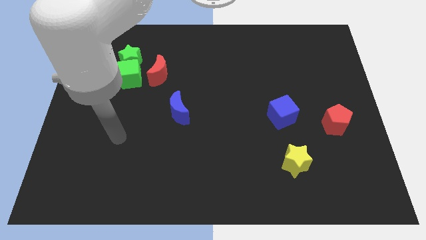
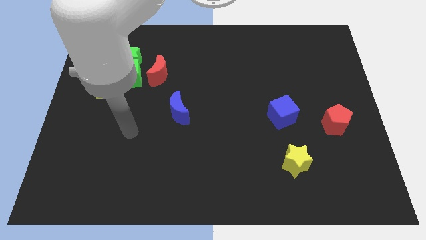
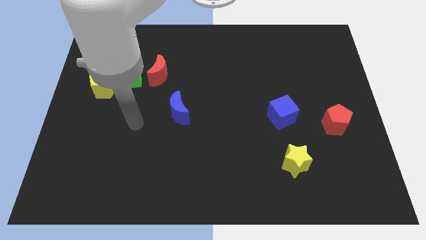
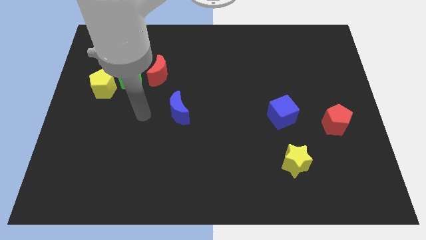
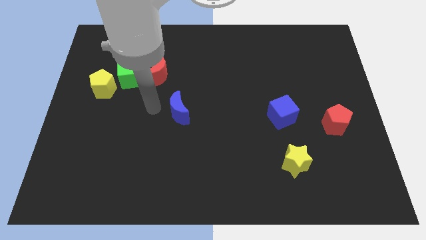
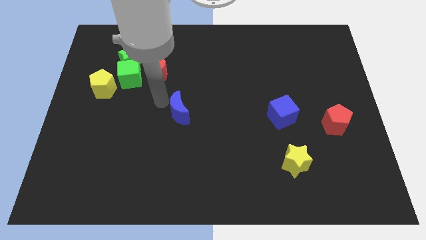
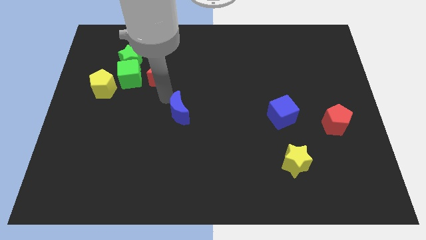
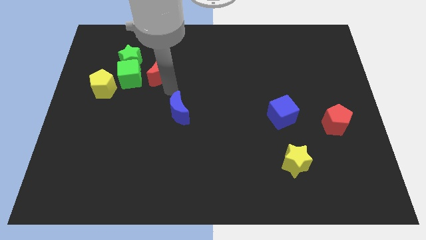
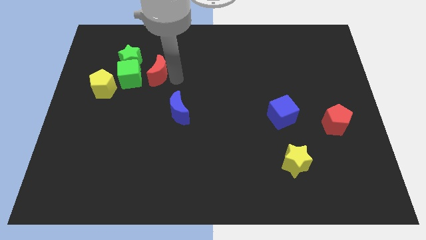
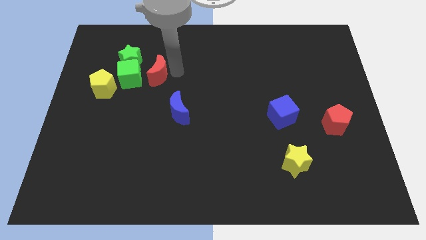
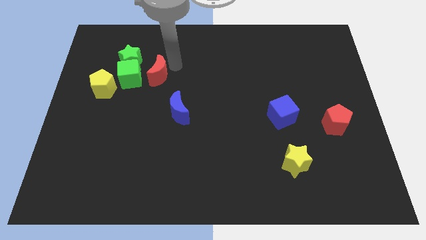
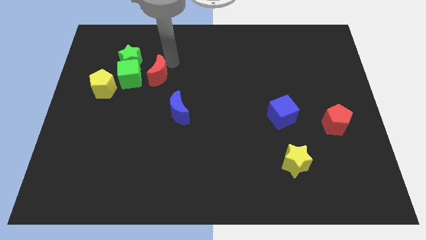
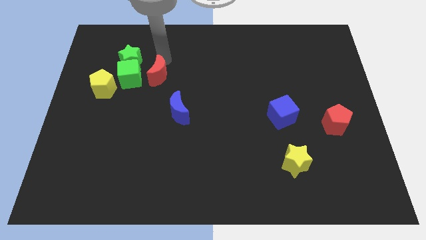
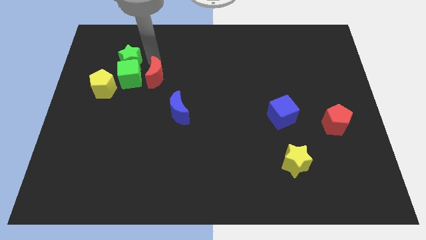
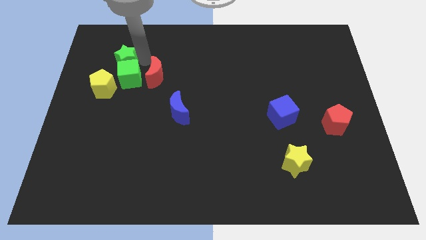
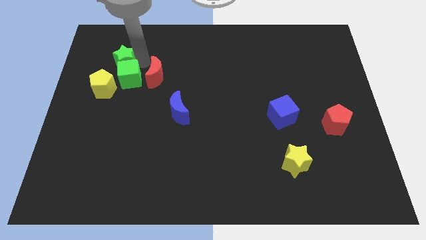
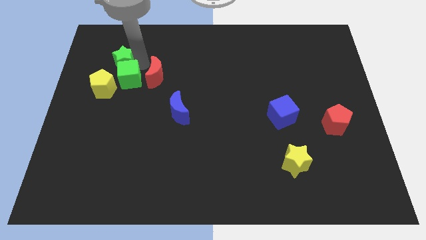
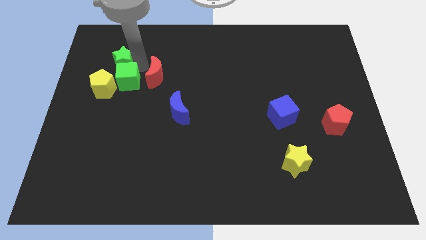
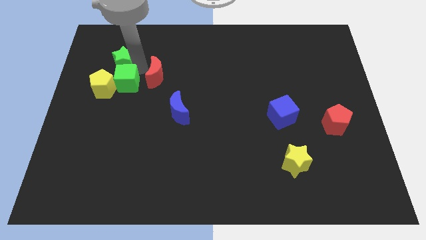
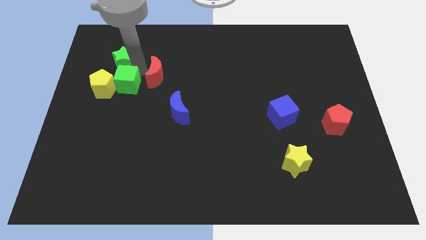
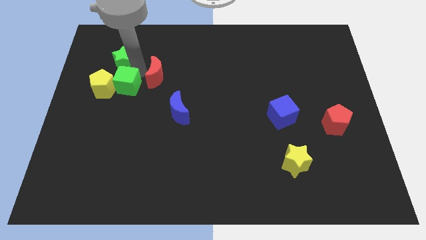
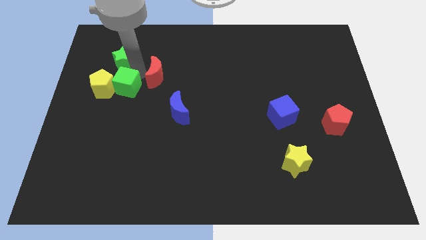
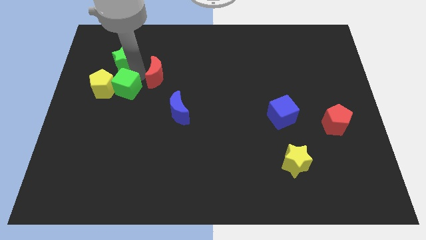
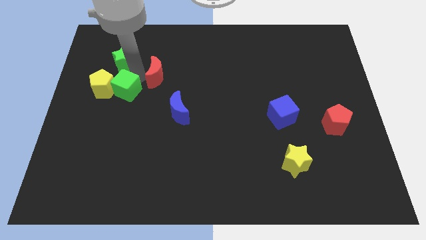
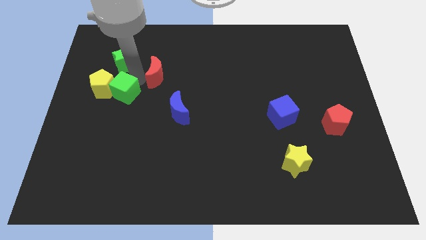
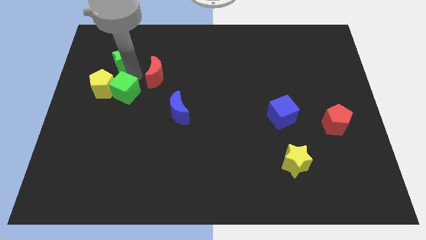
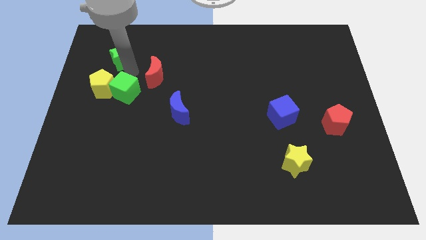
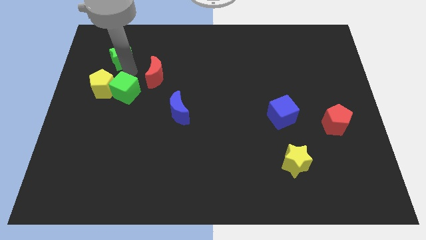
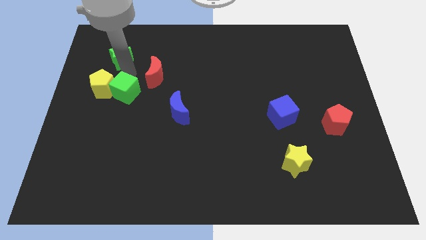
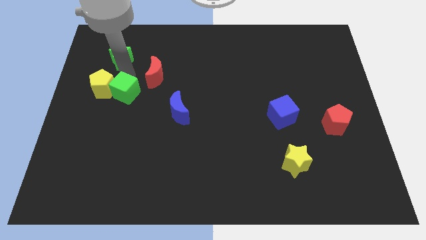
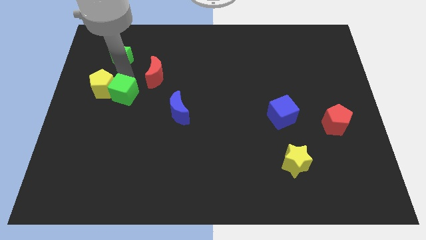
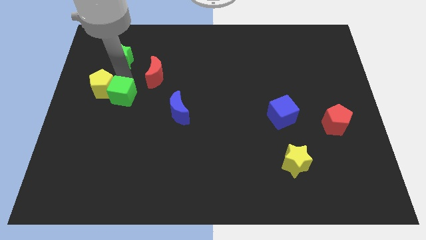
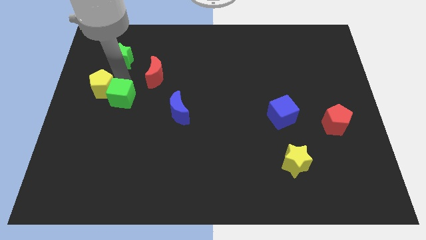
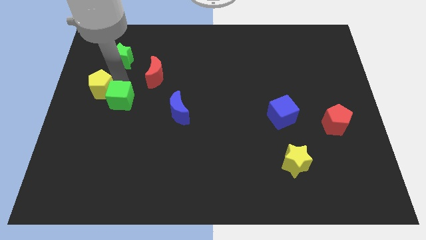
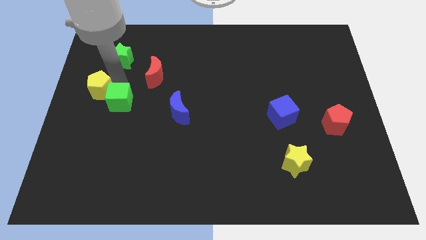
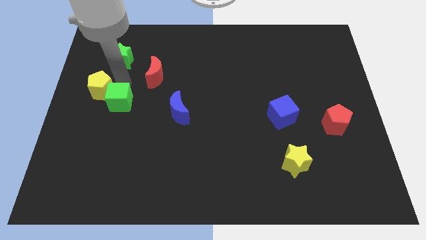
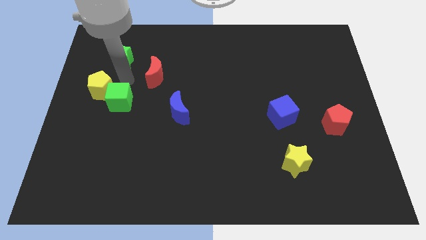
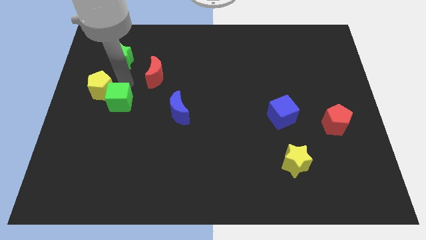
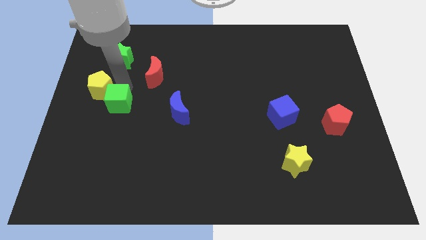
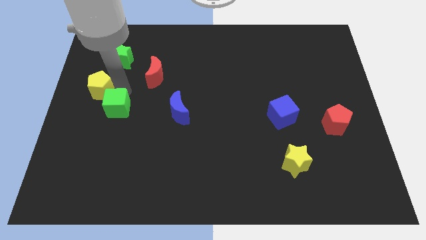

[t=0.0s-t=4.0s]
move the green cube away from the group

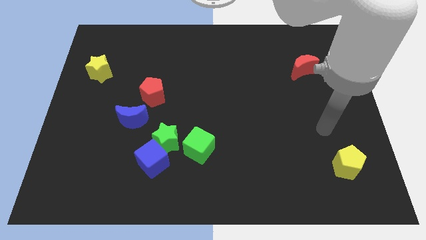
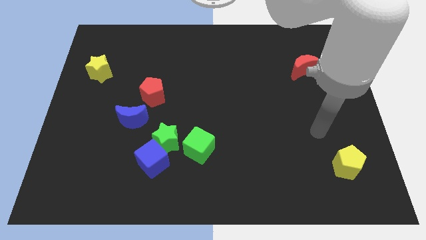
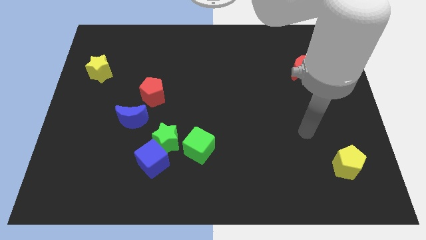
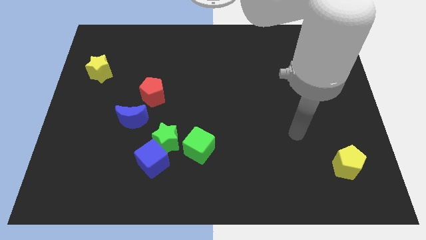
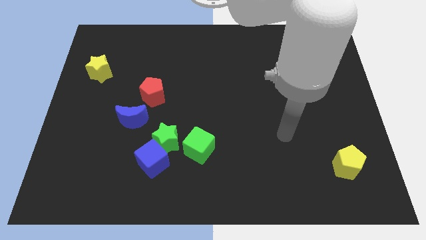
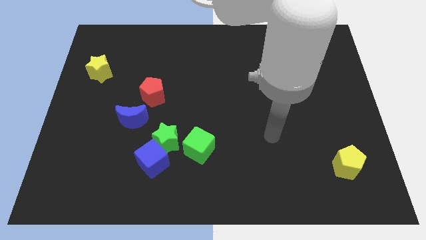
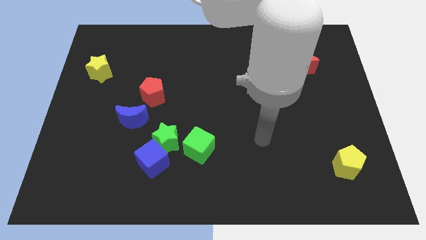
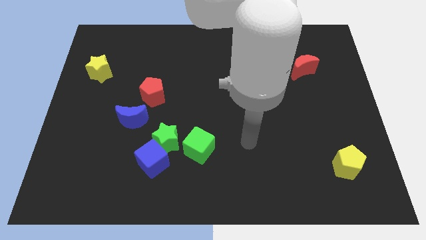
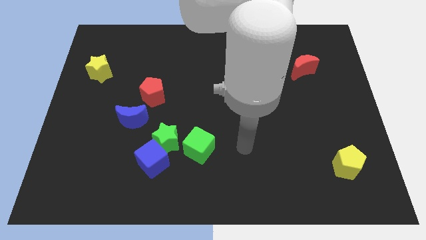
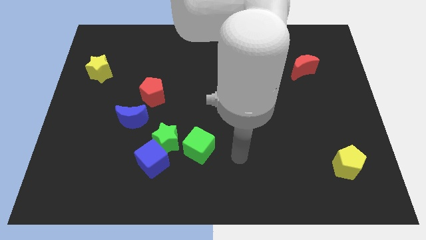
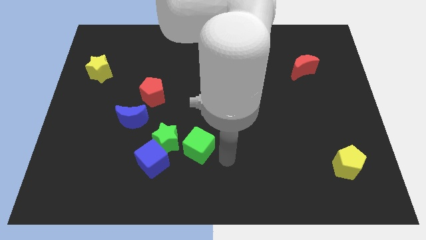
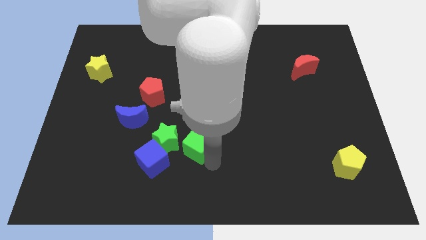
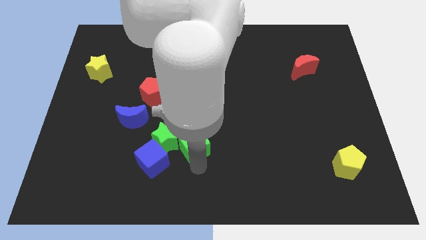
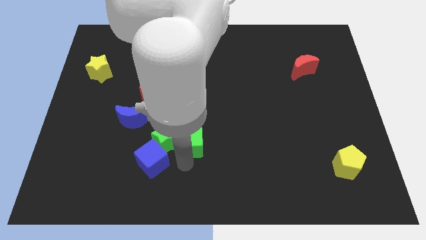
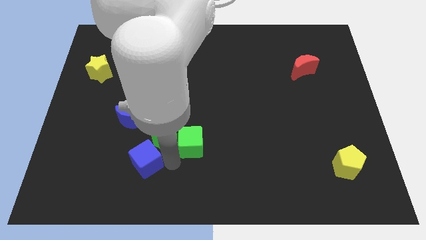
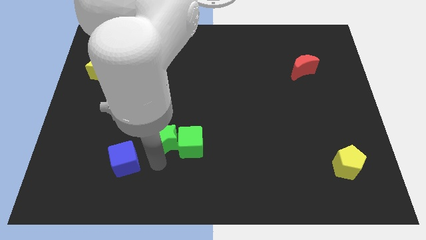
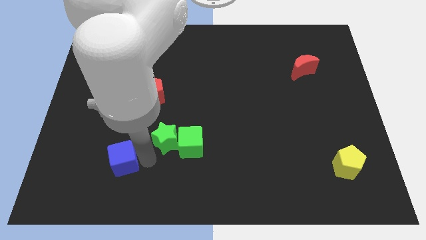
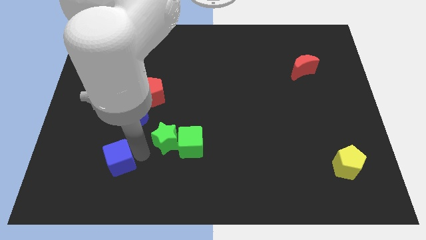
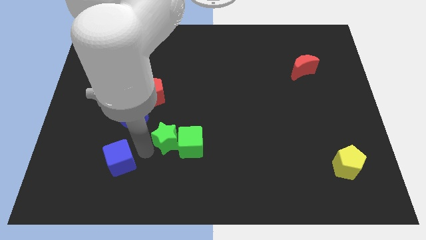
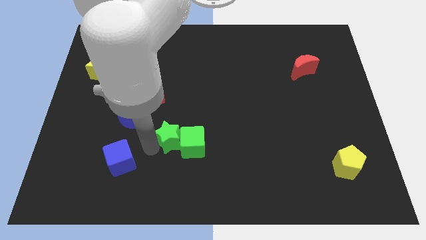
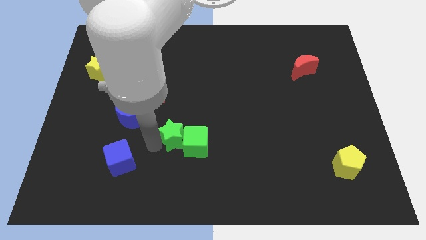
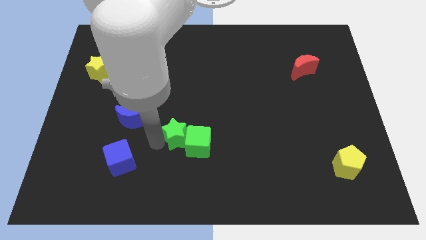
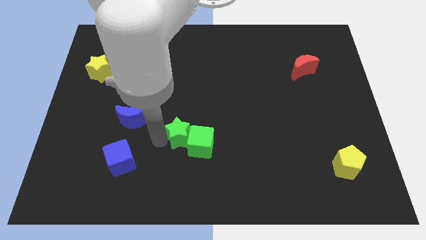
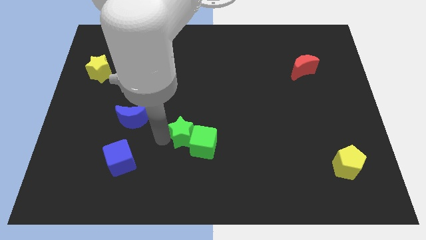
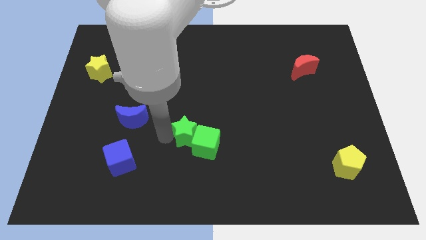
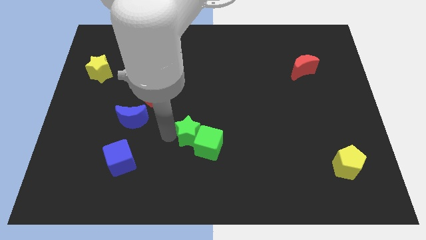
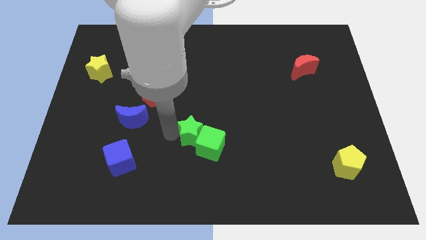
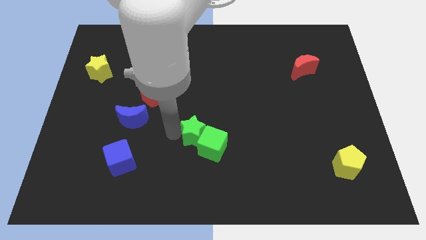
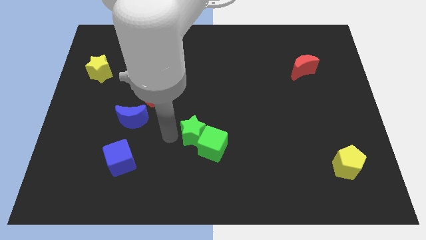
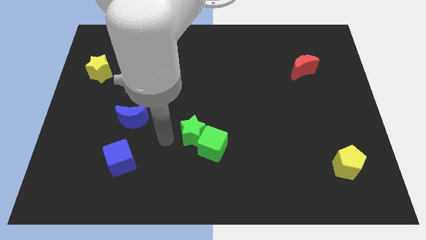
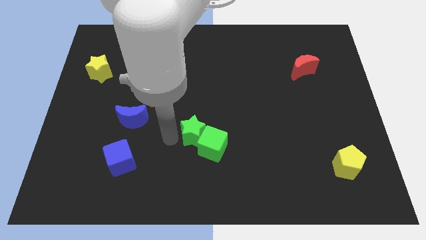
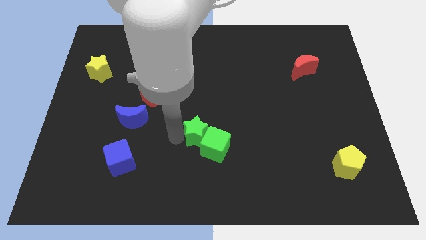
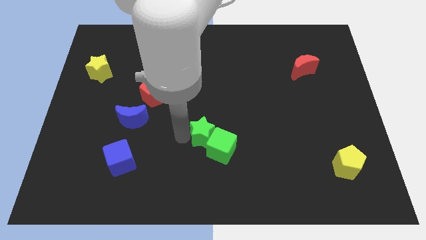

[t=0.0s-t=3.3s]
separate the green star from the blue cube, green cube, and blue moon

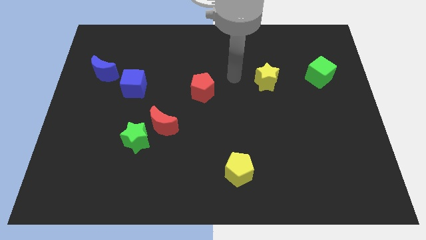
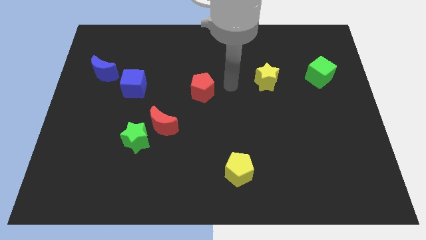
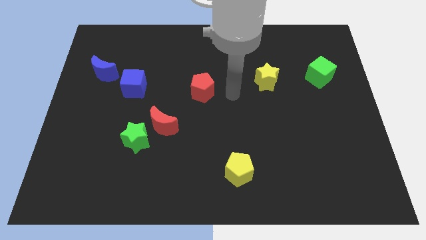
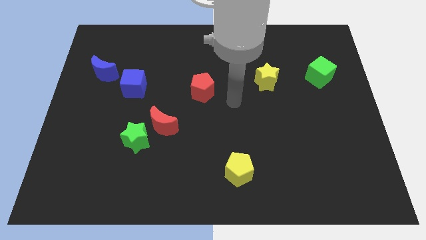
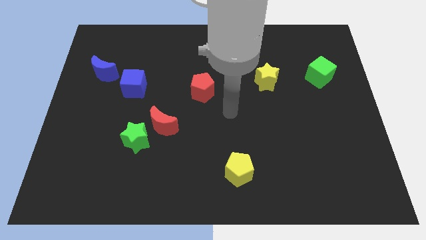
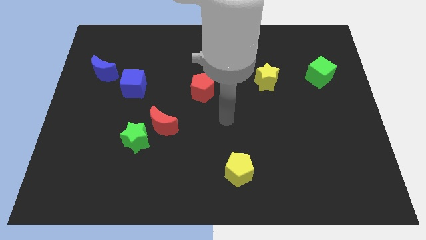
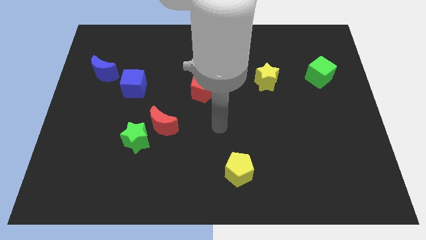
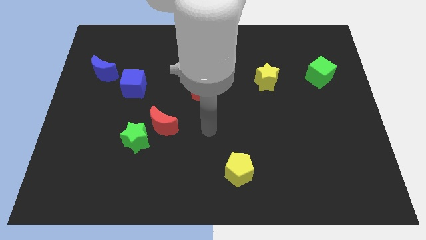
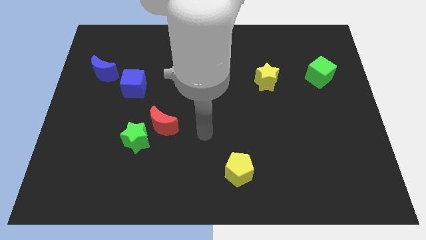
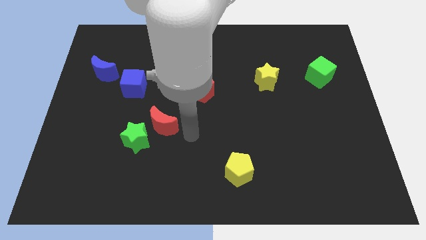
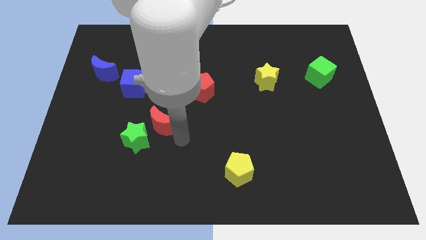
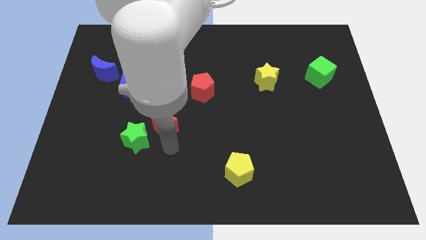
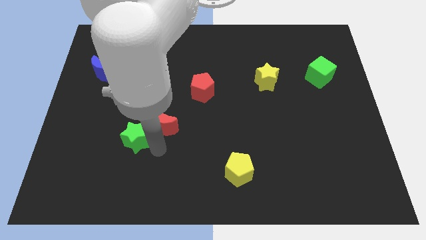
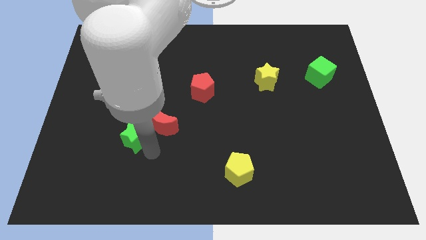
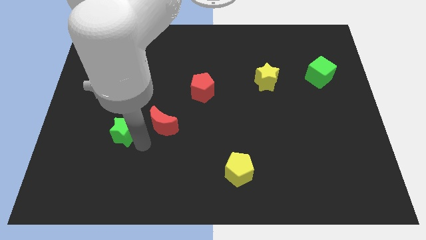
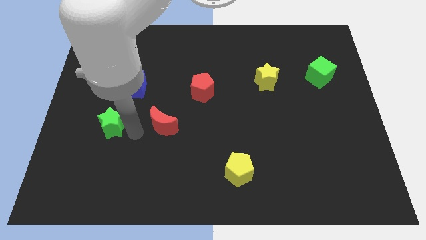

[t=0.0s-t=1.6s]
separate the red moon from the green star

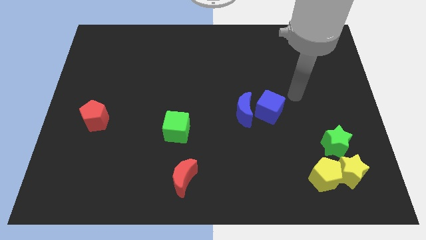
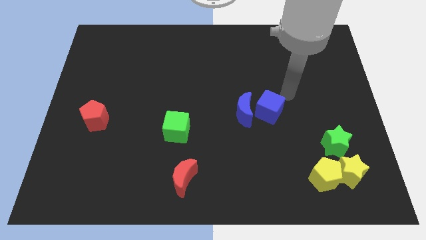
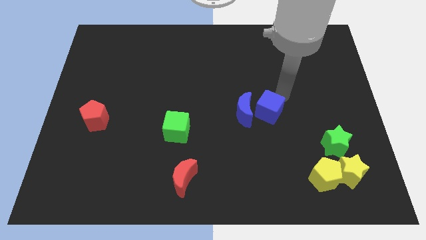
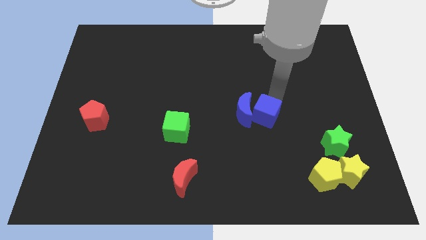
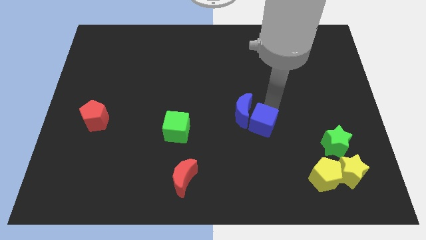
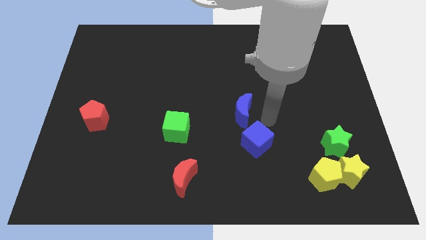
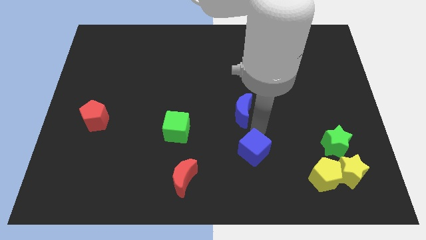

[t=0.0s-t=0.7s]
move the blue moon away from the blue cube
